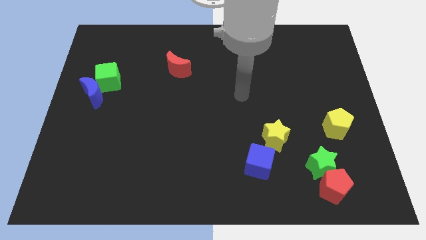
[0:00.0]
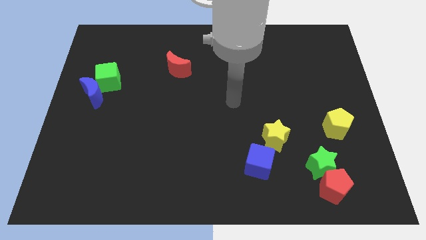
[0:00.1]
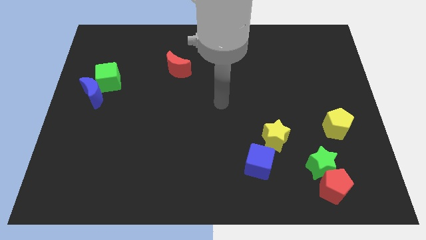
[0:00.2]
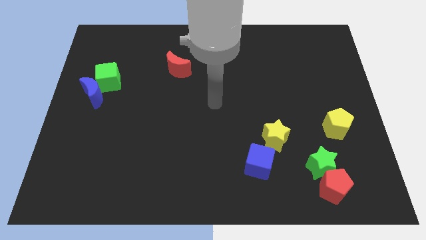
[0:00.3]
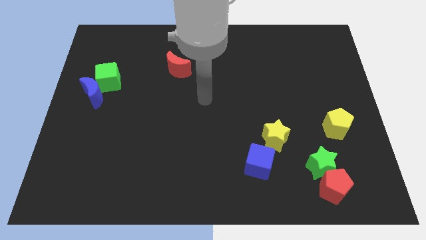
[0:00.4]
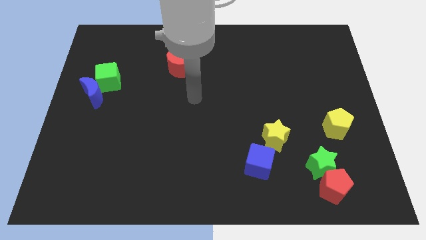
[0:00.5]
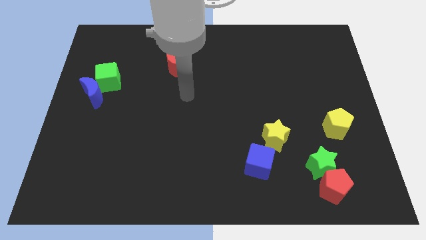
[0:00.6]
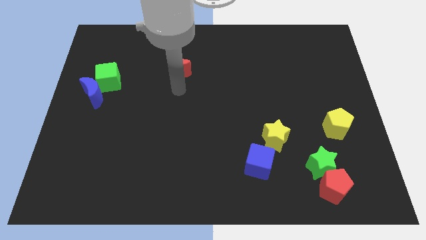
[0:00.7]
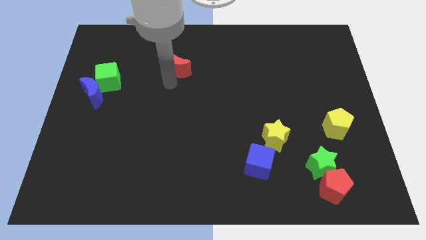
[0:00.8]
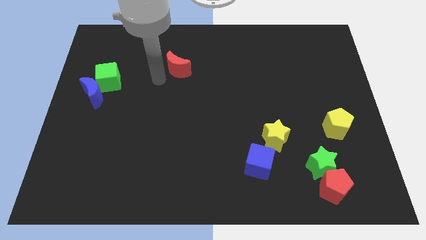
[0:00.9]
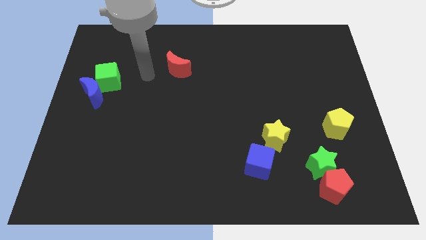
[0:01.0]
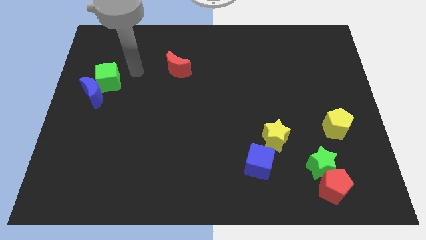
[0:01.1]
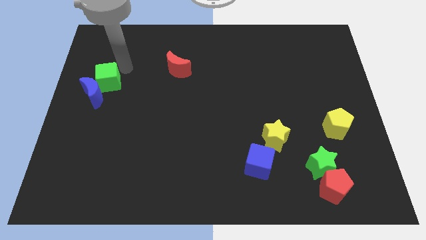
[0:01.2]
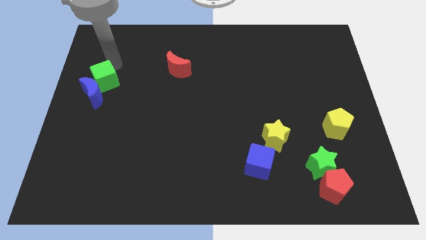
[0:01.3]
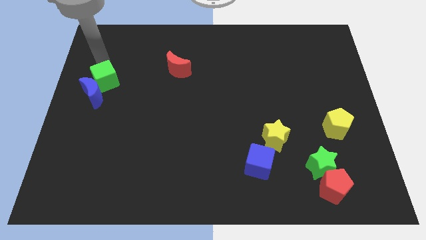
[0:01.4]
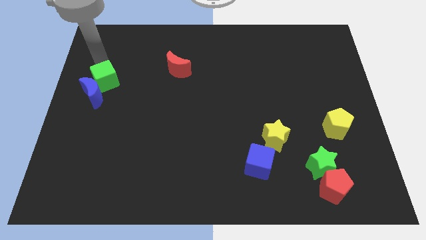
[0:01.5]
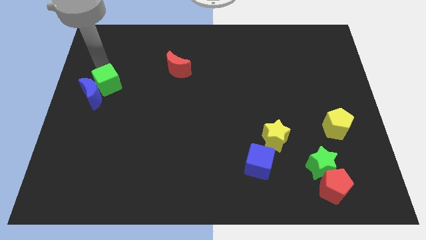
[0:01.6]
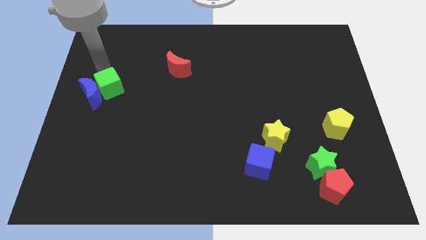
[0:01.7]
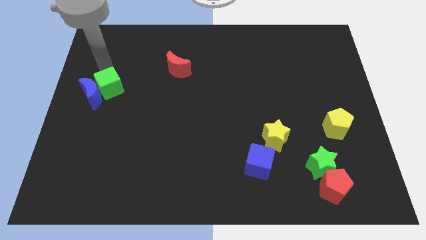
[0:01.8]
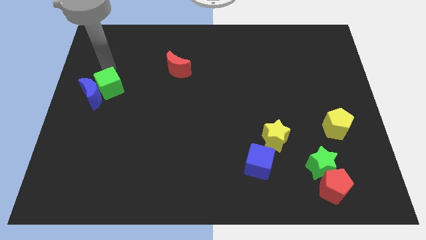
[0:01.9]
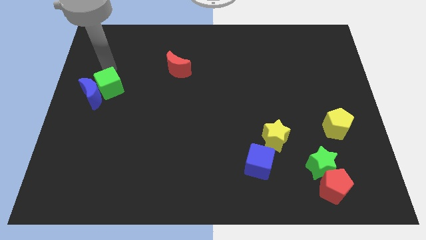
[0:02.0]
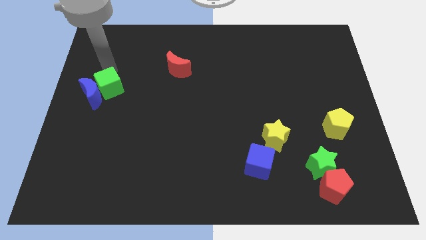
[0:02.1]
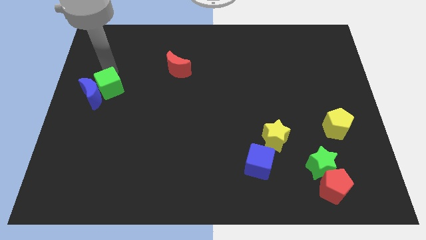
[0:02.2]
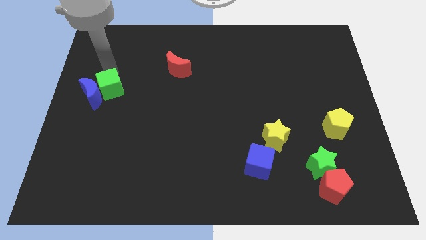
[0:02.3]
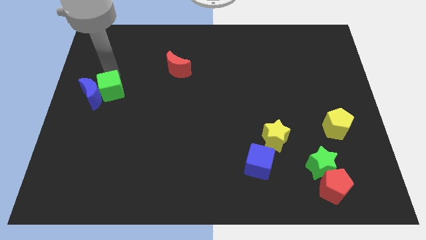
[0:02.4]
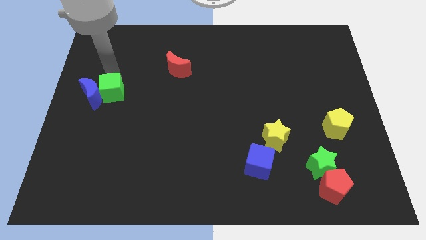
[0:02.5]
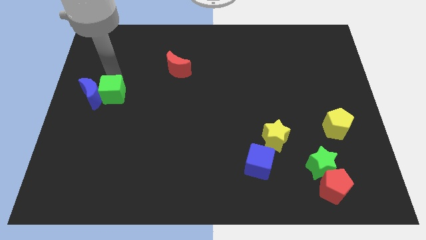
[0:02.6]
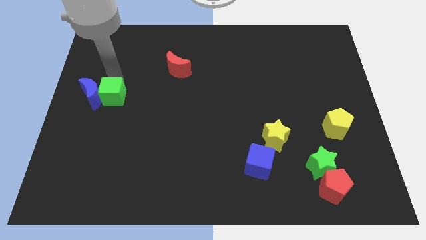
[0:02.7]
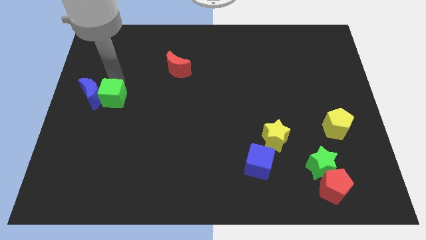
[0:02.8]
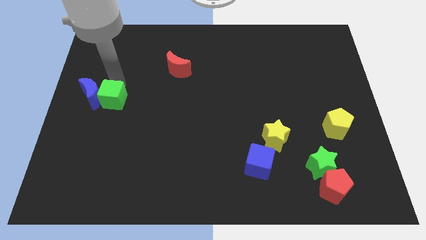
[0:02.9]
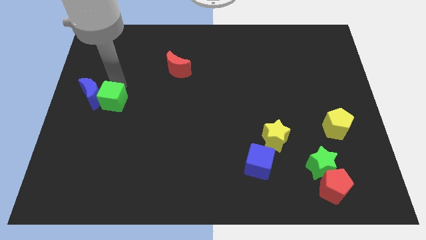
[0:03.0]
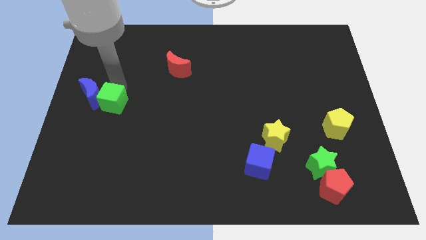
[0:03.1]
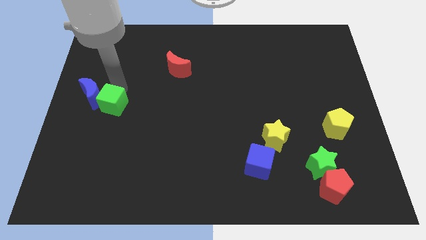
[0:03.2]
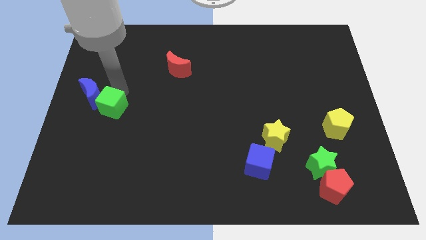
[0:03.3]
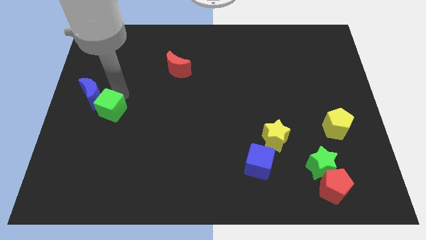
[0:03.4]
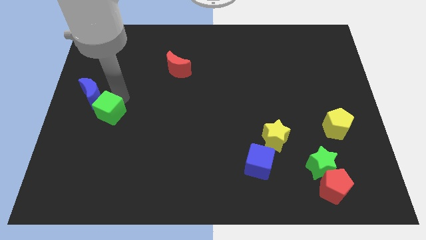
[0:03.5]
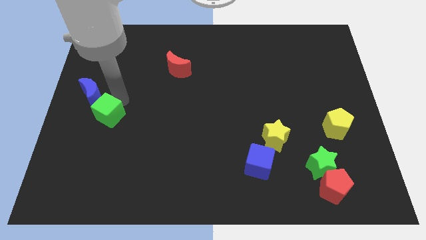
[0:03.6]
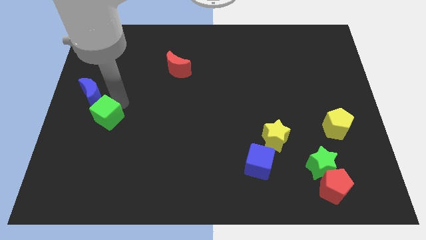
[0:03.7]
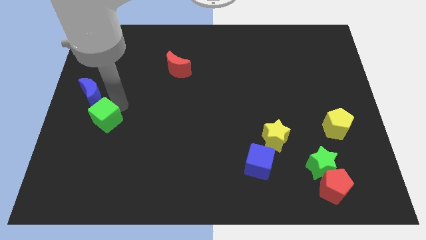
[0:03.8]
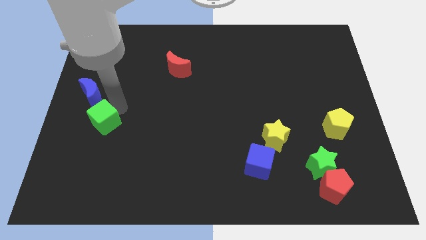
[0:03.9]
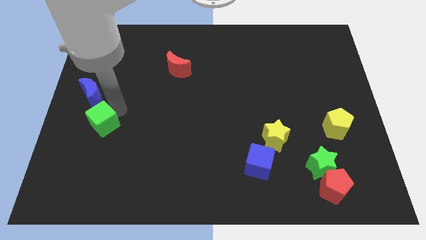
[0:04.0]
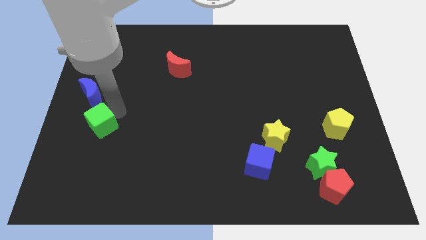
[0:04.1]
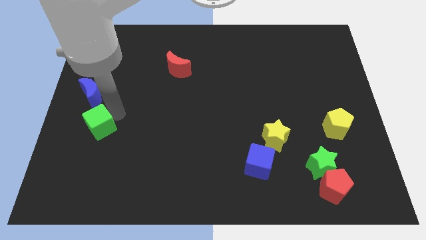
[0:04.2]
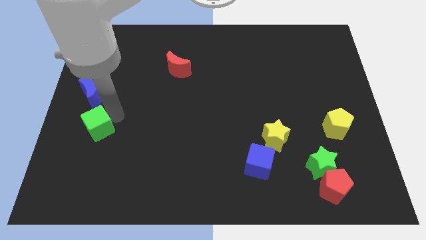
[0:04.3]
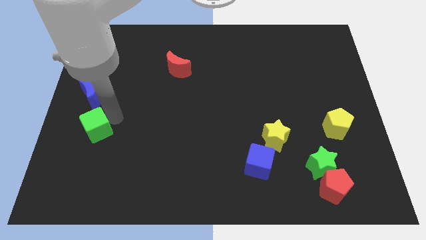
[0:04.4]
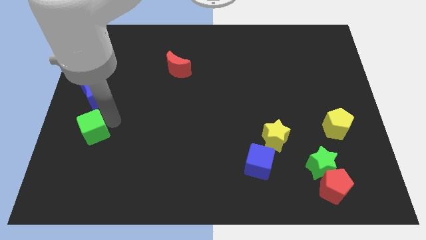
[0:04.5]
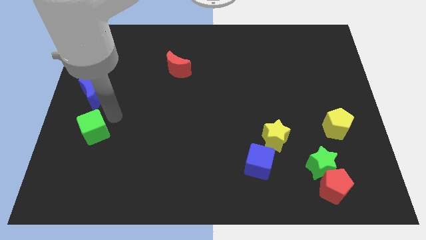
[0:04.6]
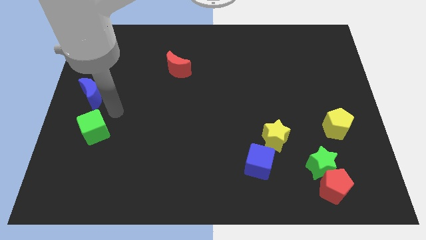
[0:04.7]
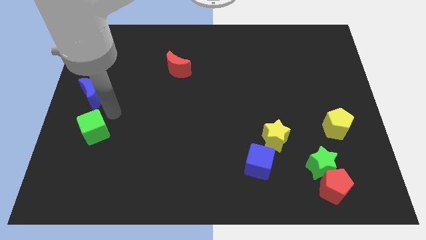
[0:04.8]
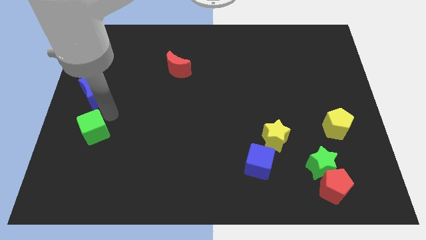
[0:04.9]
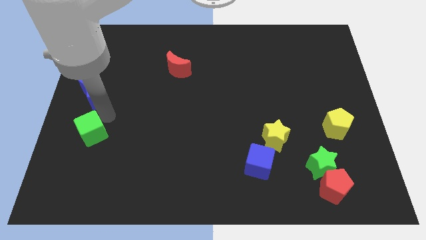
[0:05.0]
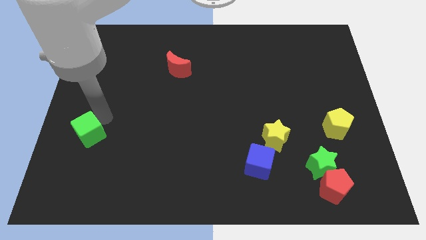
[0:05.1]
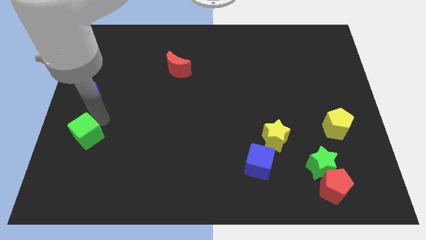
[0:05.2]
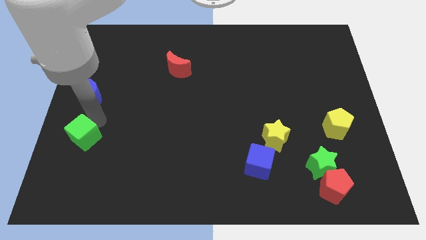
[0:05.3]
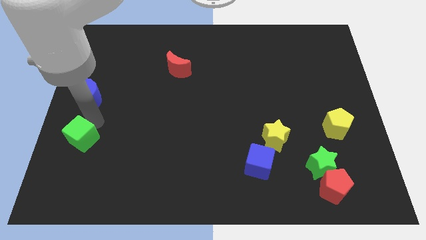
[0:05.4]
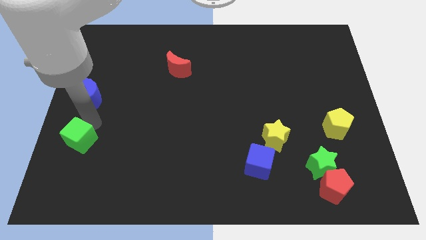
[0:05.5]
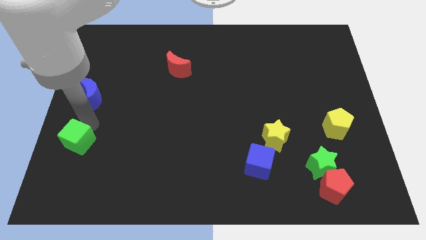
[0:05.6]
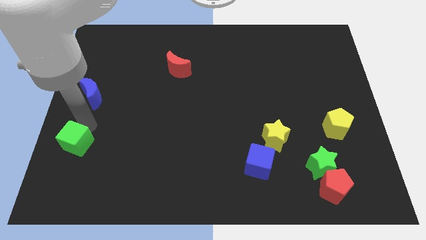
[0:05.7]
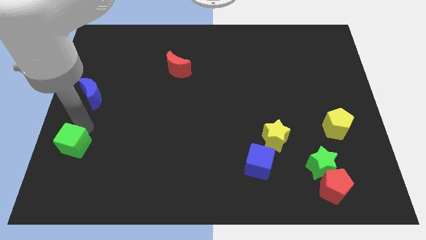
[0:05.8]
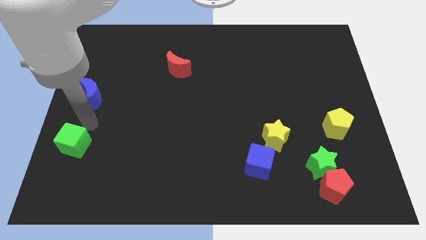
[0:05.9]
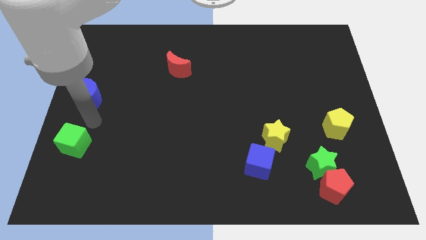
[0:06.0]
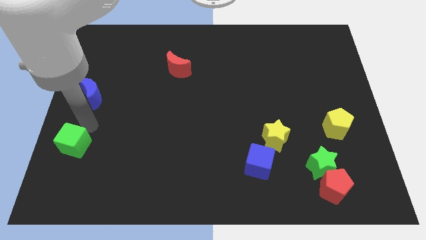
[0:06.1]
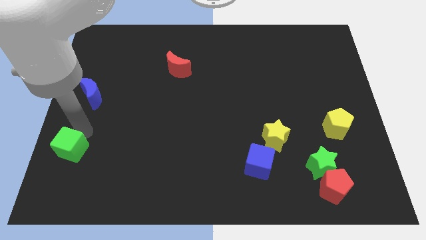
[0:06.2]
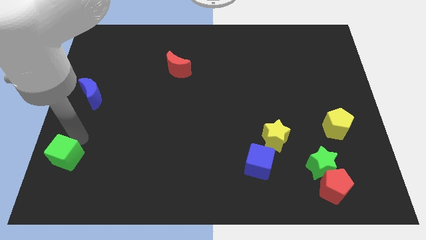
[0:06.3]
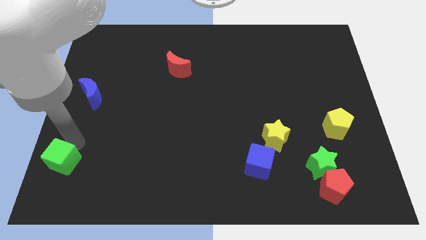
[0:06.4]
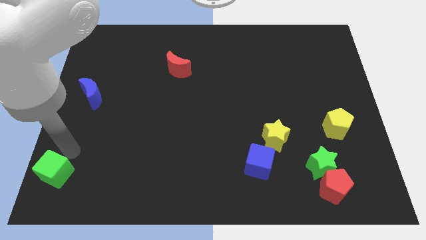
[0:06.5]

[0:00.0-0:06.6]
push the green cube to the bottom left
